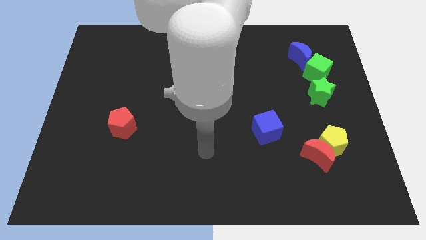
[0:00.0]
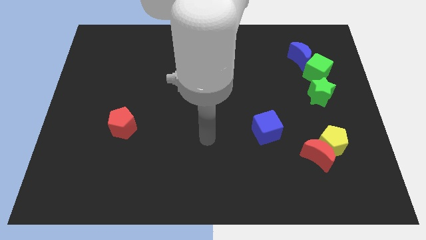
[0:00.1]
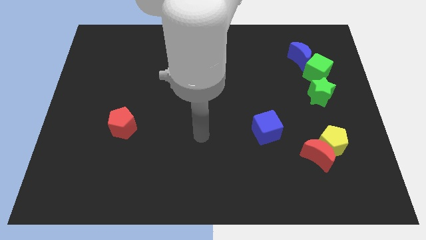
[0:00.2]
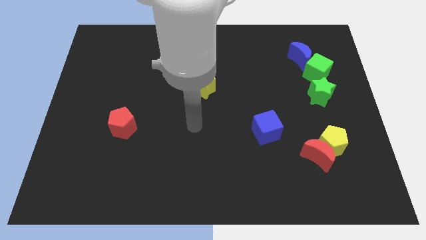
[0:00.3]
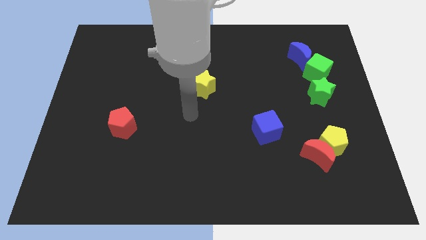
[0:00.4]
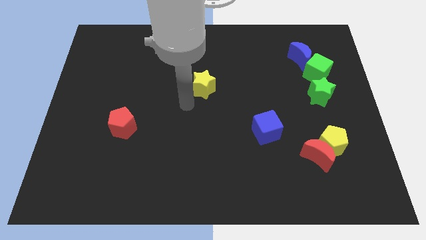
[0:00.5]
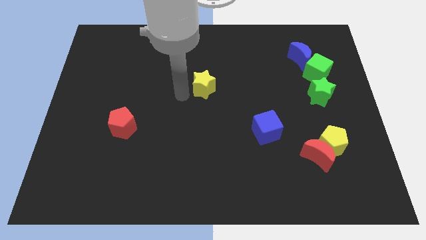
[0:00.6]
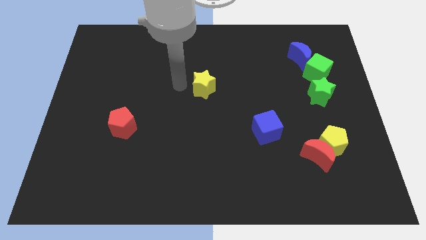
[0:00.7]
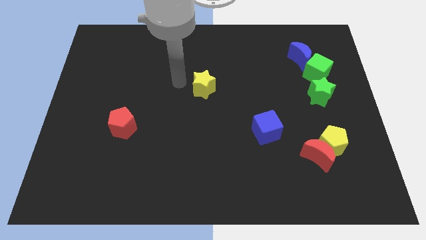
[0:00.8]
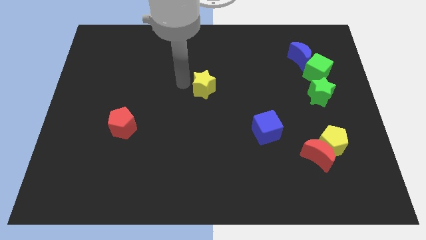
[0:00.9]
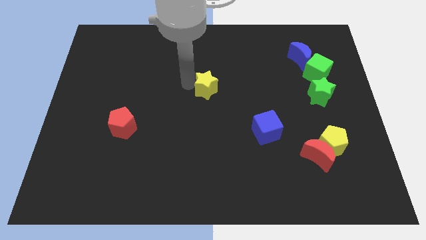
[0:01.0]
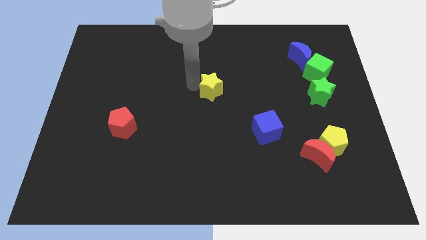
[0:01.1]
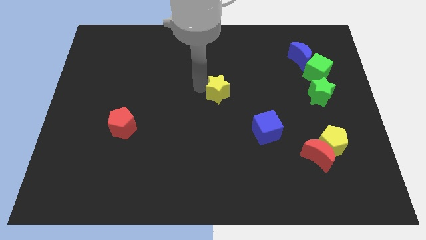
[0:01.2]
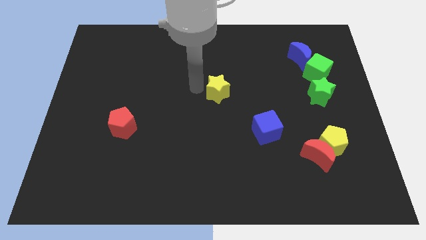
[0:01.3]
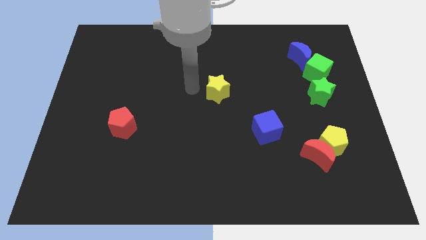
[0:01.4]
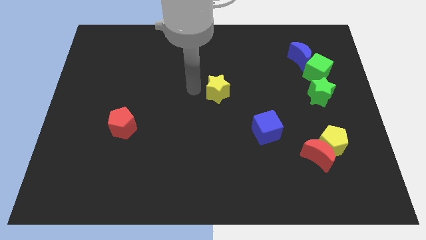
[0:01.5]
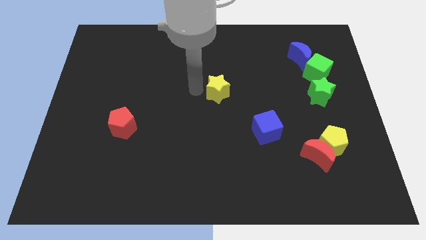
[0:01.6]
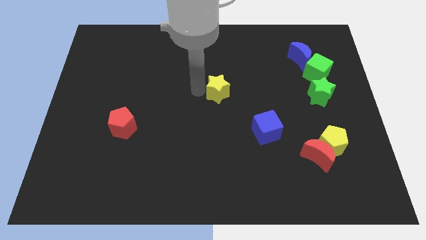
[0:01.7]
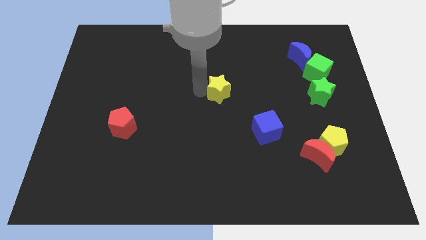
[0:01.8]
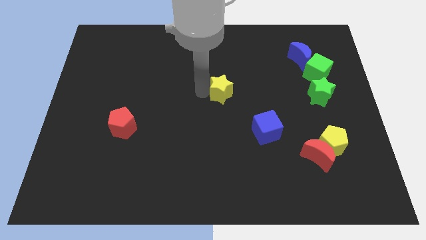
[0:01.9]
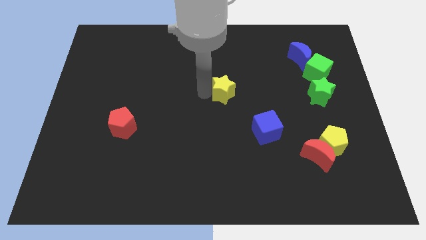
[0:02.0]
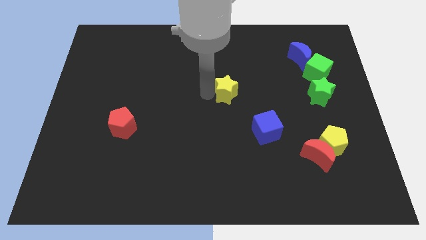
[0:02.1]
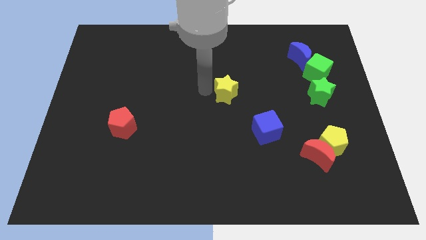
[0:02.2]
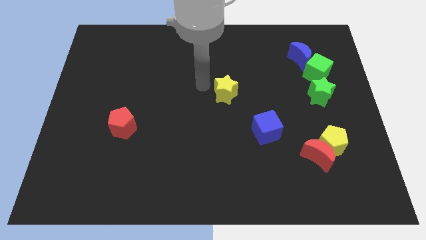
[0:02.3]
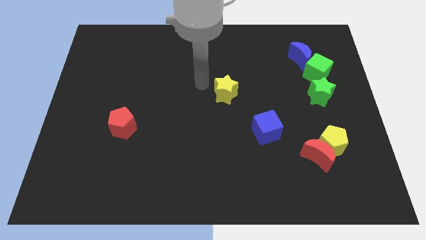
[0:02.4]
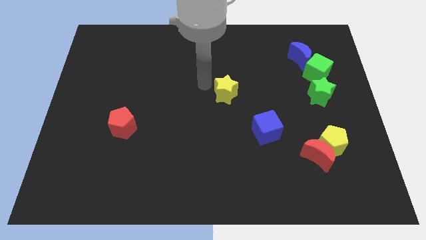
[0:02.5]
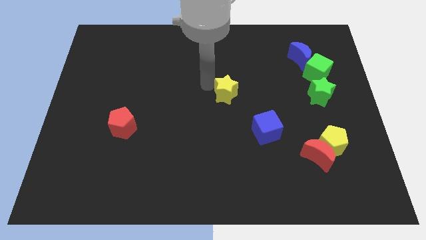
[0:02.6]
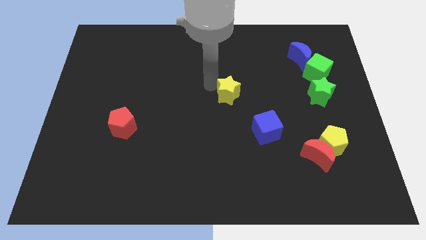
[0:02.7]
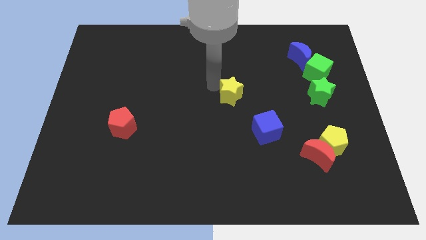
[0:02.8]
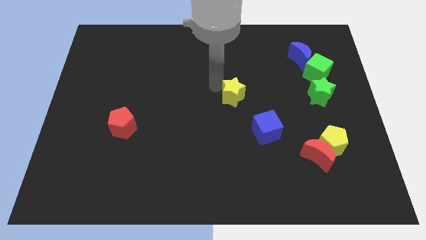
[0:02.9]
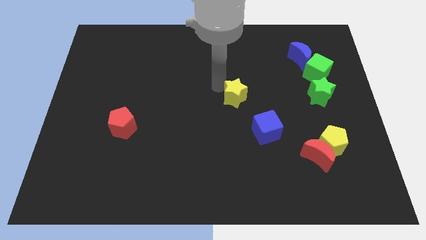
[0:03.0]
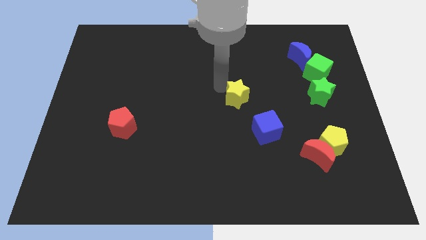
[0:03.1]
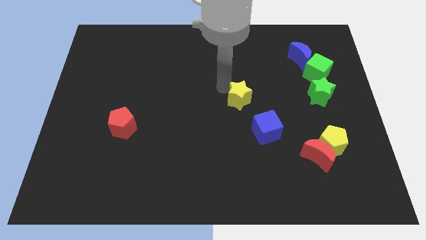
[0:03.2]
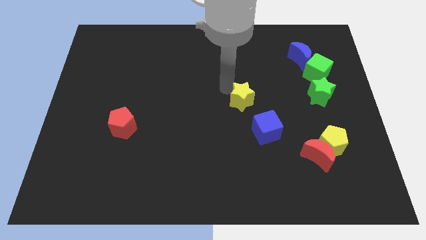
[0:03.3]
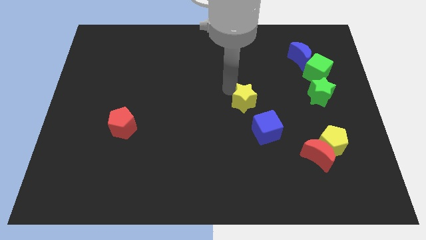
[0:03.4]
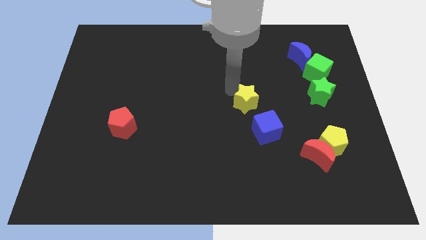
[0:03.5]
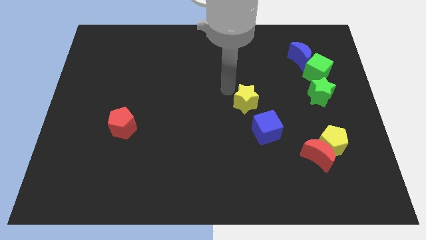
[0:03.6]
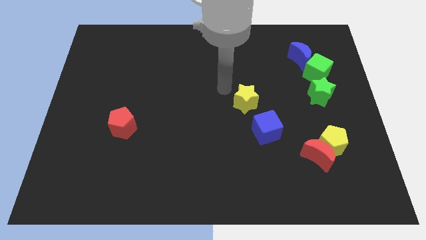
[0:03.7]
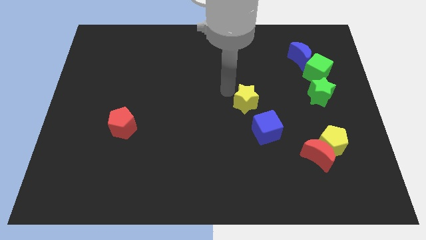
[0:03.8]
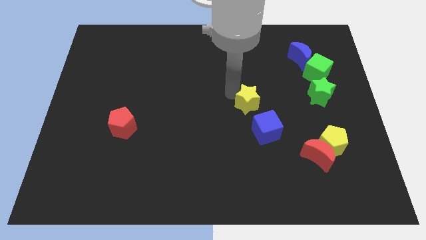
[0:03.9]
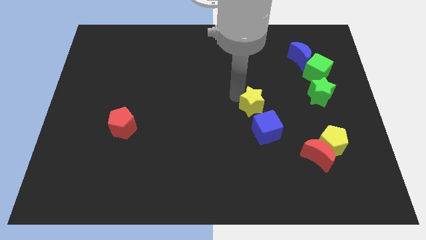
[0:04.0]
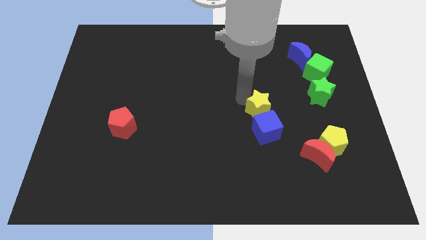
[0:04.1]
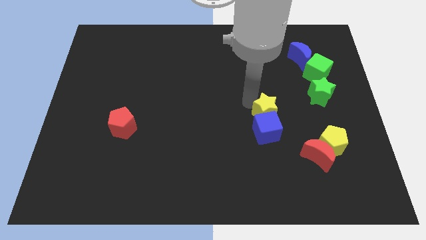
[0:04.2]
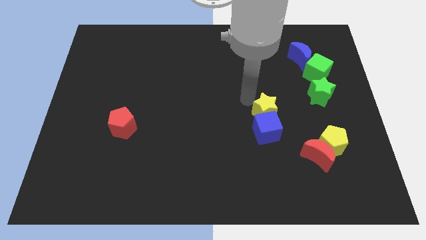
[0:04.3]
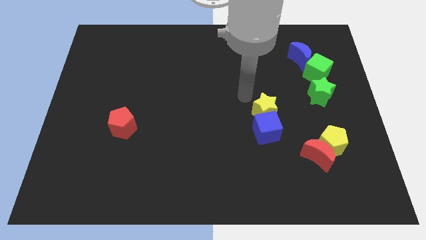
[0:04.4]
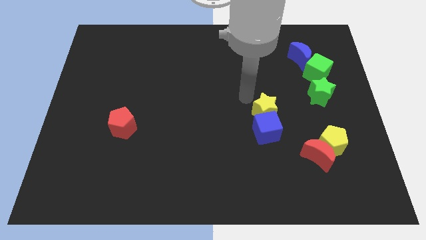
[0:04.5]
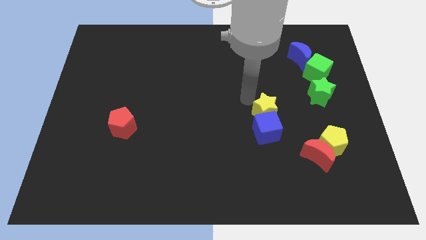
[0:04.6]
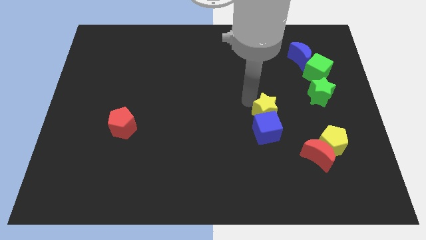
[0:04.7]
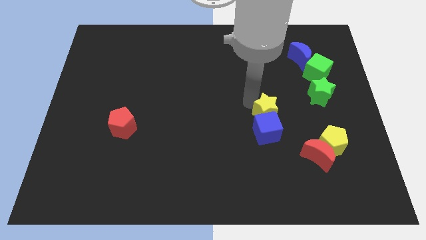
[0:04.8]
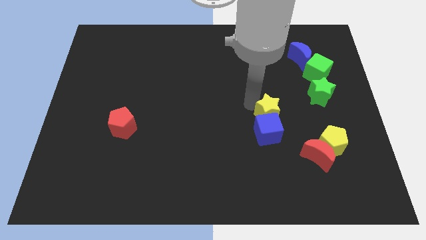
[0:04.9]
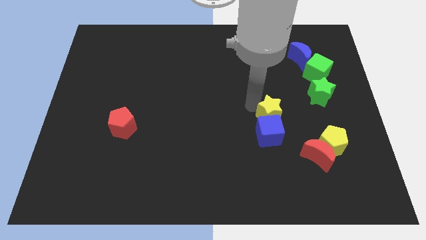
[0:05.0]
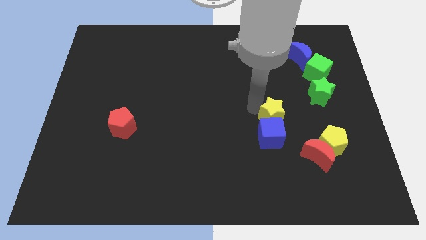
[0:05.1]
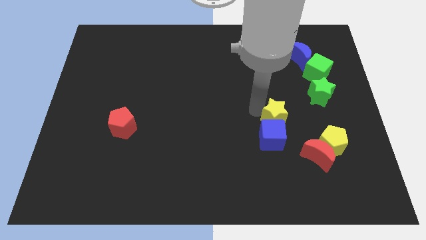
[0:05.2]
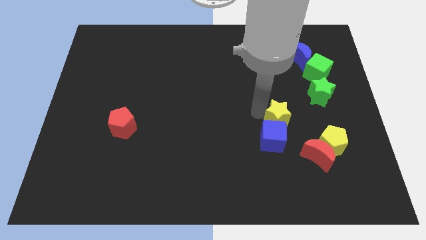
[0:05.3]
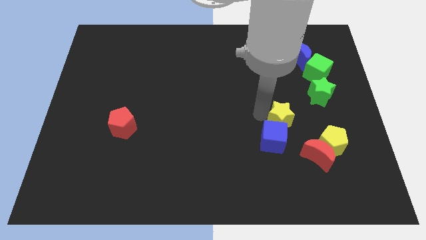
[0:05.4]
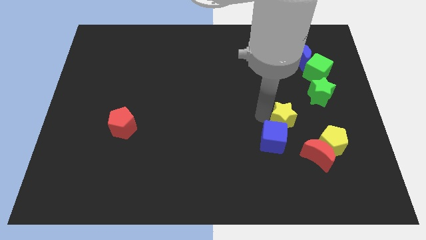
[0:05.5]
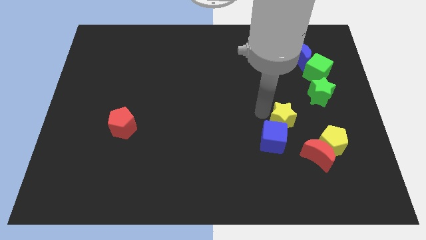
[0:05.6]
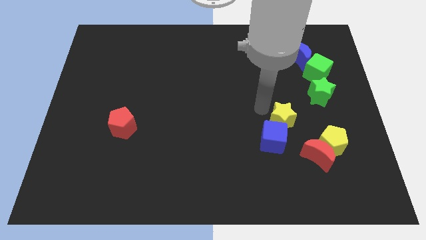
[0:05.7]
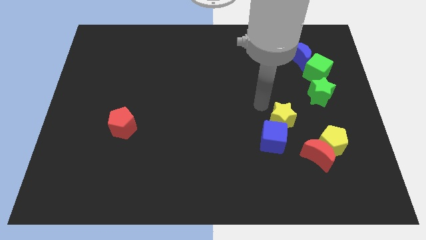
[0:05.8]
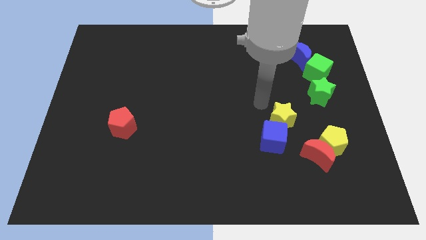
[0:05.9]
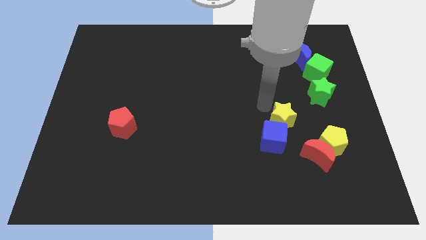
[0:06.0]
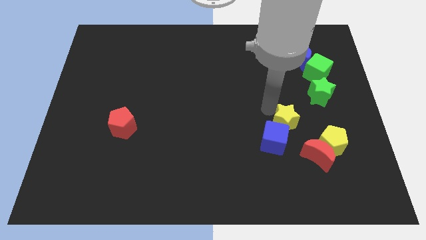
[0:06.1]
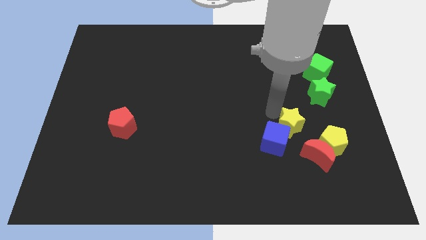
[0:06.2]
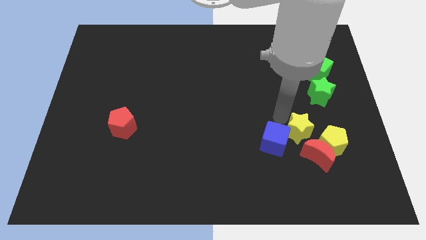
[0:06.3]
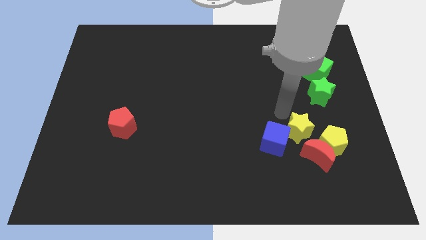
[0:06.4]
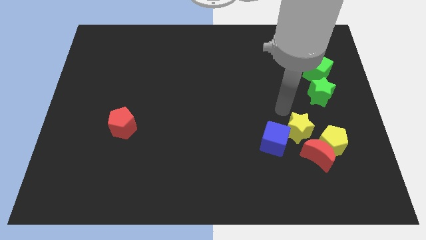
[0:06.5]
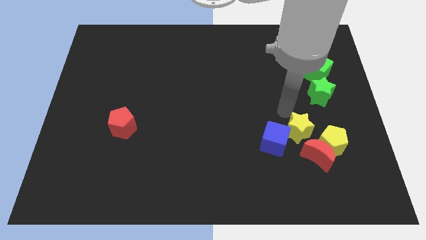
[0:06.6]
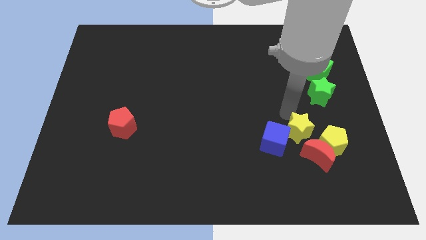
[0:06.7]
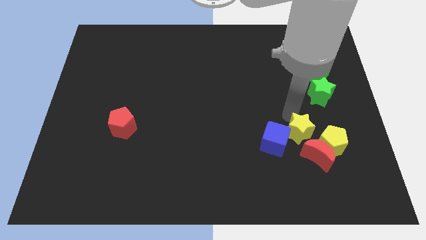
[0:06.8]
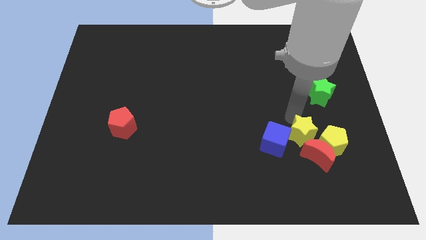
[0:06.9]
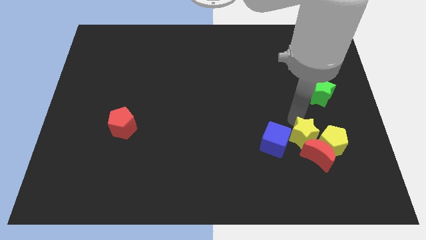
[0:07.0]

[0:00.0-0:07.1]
put the yellow star to the red moon
